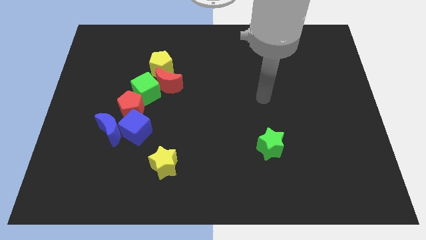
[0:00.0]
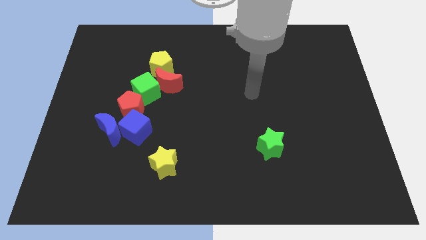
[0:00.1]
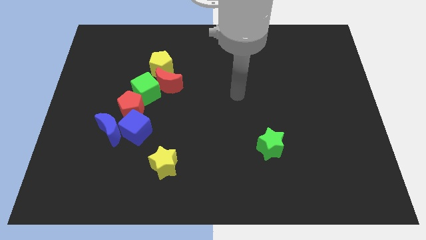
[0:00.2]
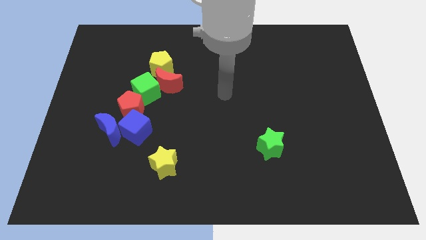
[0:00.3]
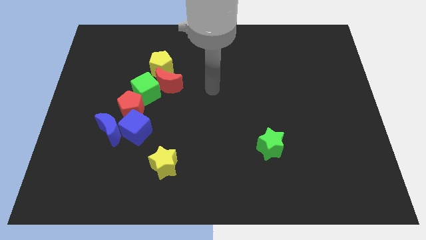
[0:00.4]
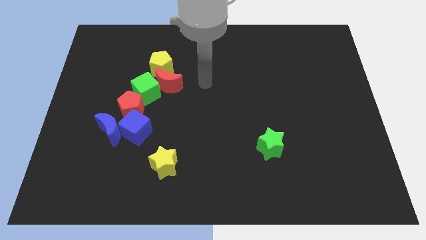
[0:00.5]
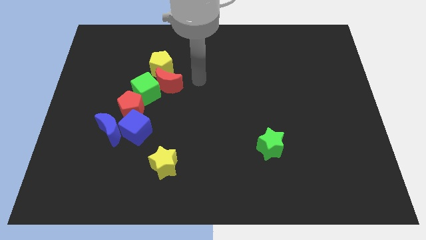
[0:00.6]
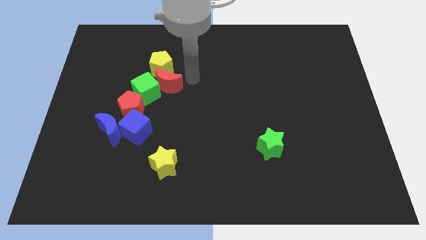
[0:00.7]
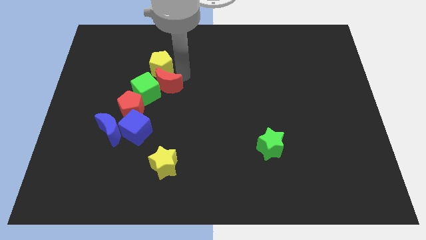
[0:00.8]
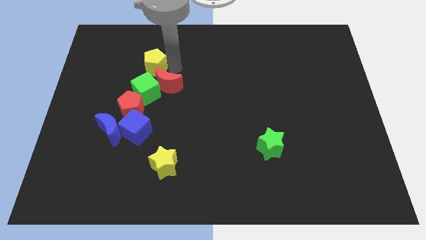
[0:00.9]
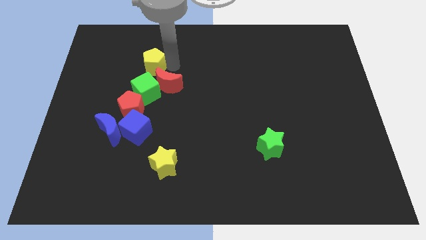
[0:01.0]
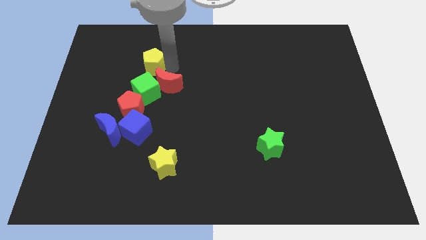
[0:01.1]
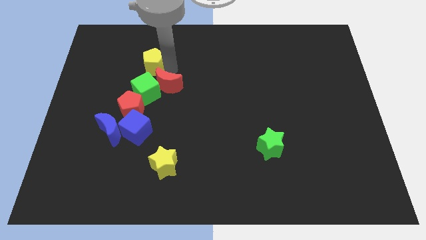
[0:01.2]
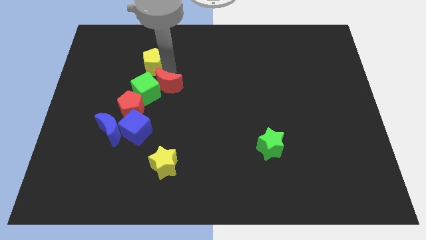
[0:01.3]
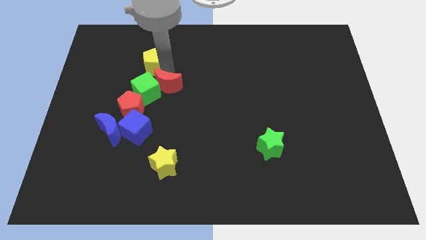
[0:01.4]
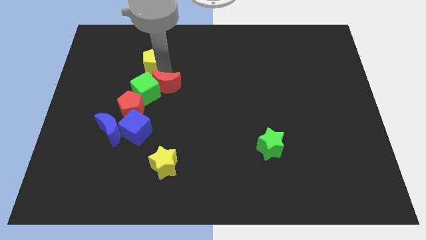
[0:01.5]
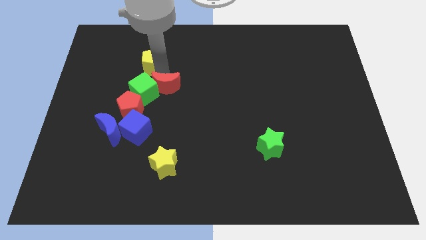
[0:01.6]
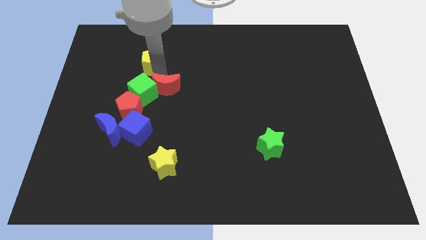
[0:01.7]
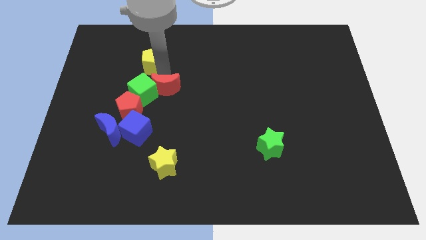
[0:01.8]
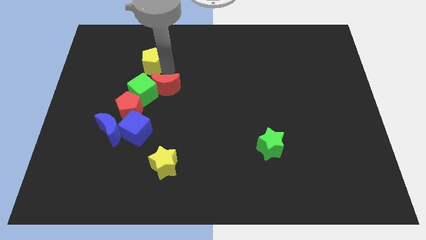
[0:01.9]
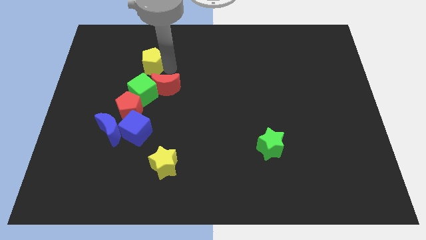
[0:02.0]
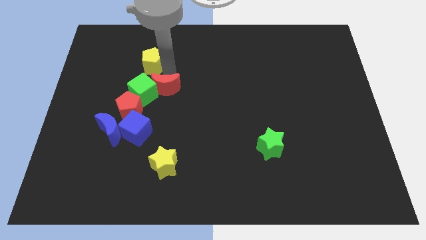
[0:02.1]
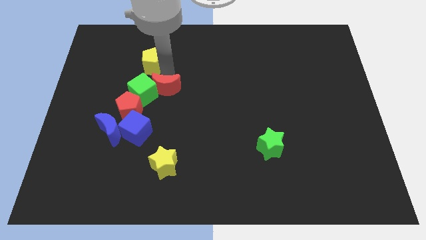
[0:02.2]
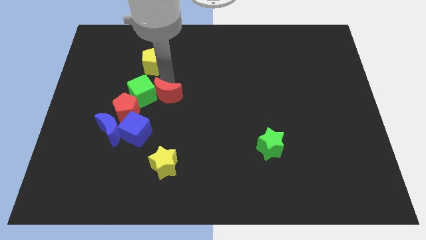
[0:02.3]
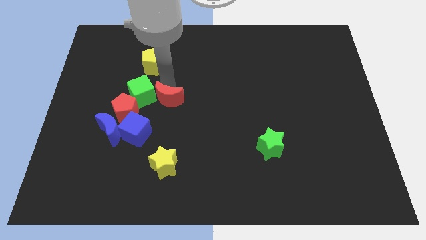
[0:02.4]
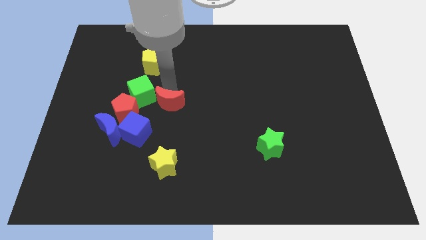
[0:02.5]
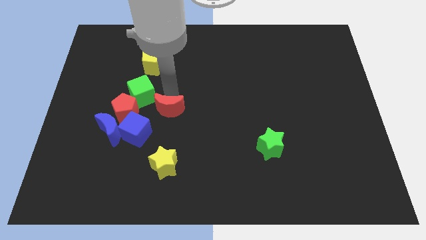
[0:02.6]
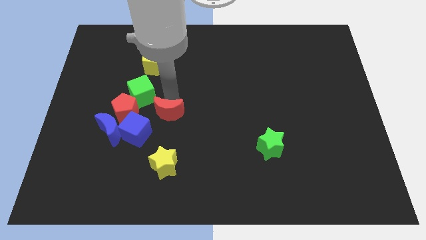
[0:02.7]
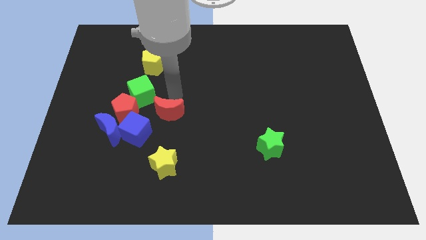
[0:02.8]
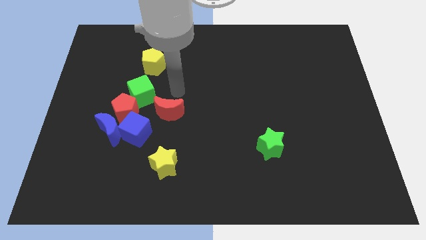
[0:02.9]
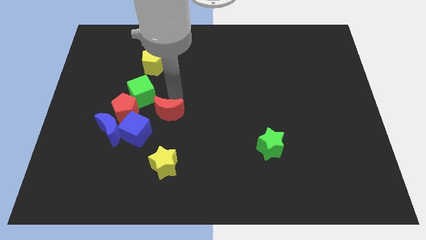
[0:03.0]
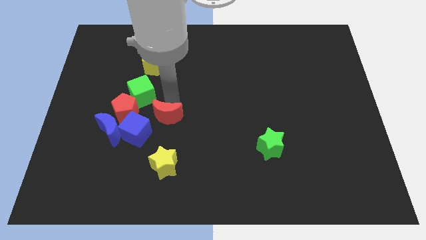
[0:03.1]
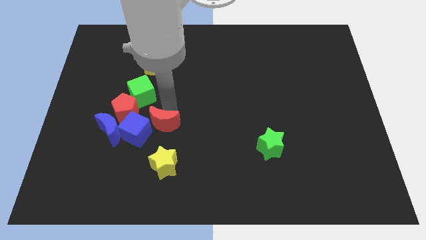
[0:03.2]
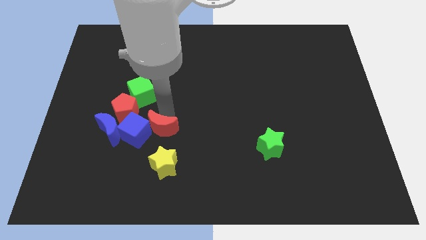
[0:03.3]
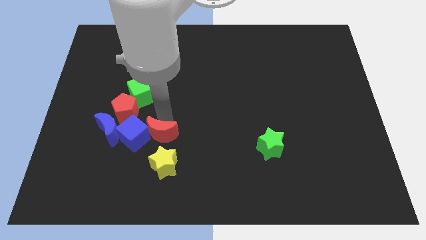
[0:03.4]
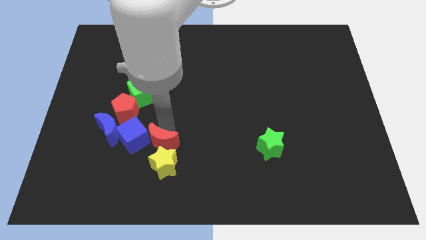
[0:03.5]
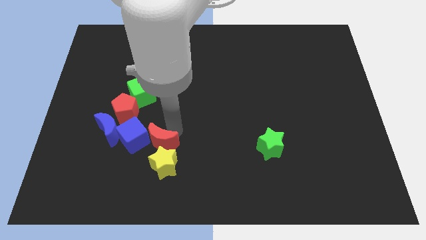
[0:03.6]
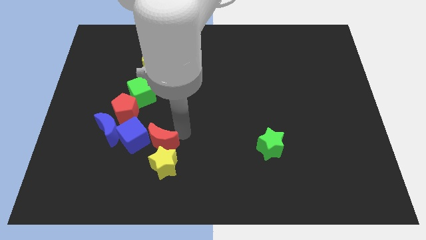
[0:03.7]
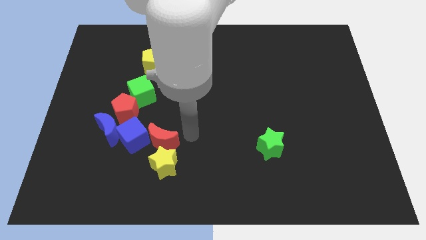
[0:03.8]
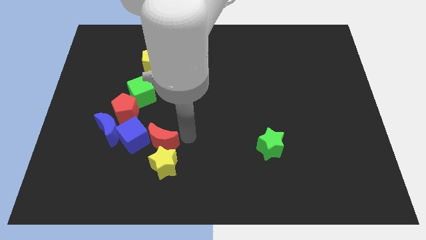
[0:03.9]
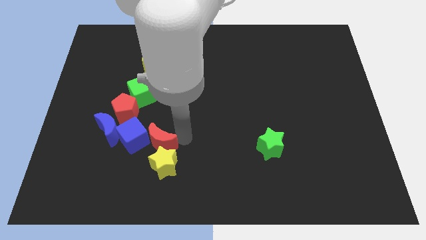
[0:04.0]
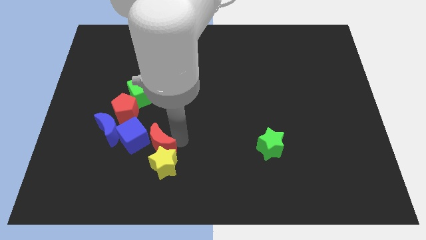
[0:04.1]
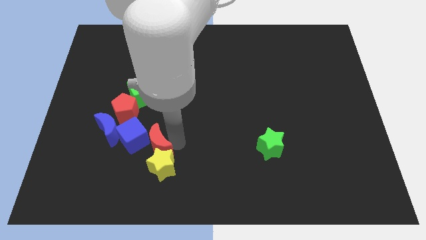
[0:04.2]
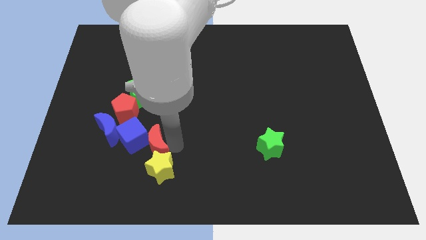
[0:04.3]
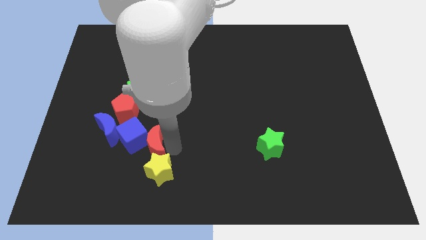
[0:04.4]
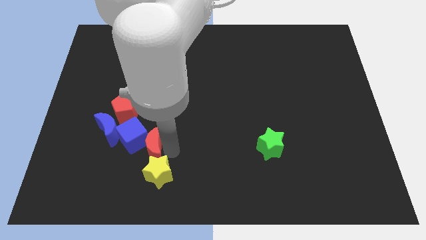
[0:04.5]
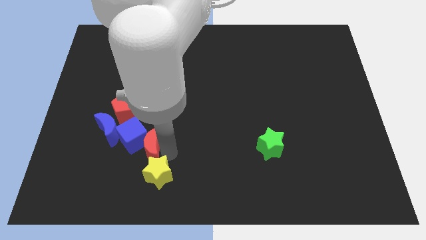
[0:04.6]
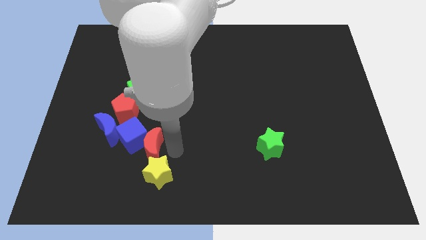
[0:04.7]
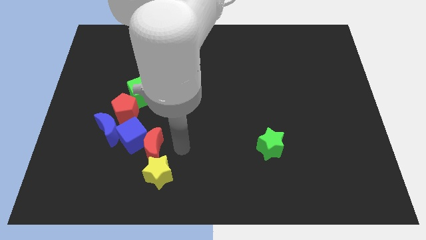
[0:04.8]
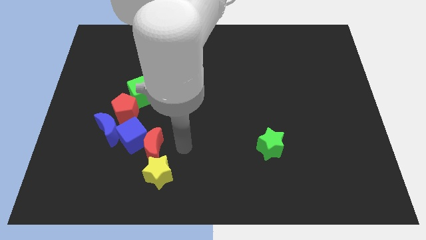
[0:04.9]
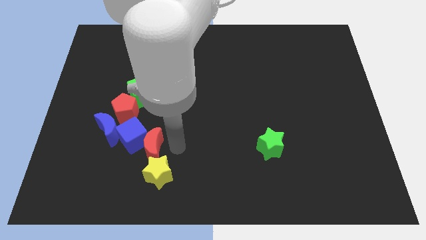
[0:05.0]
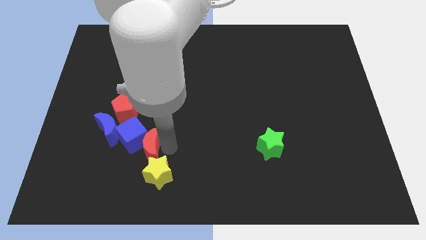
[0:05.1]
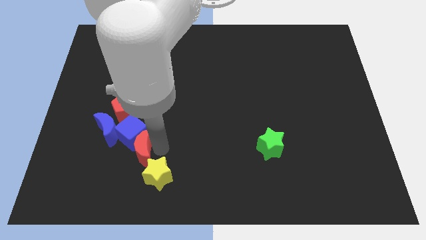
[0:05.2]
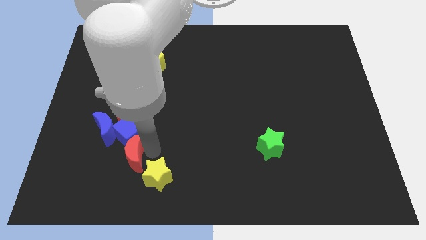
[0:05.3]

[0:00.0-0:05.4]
put the red moon to the bottom side of the red pentagon

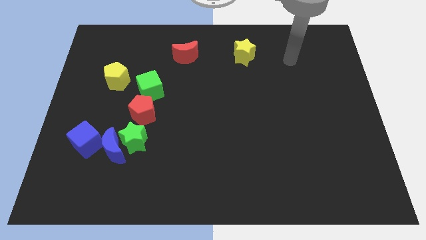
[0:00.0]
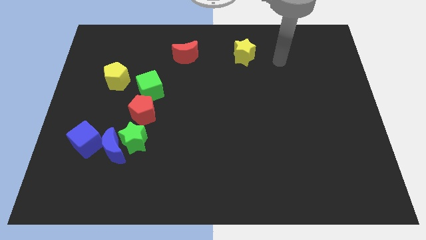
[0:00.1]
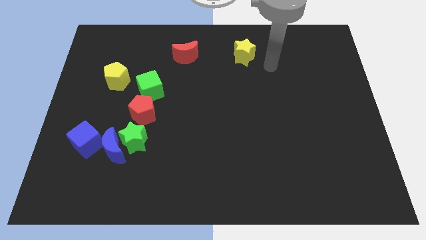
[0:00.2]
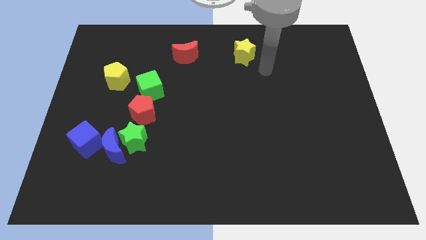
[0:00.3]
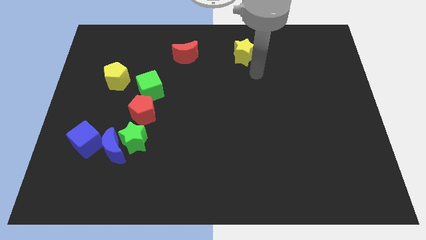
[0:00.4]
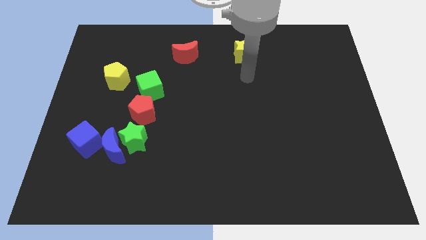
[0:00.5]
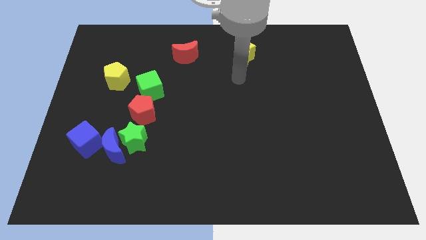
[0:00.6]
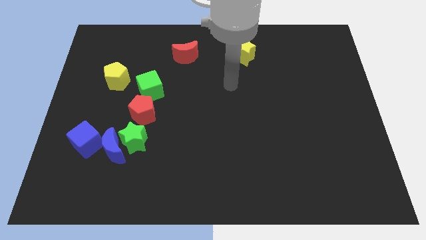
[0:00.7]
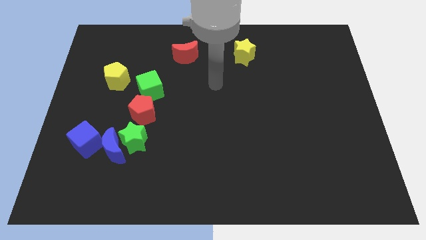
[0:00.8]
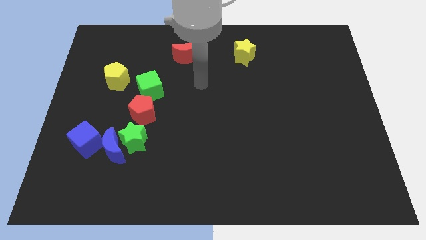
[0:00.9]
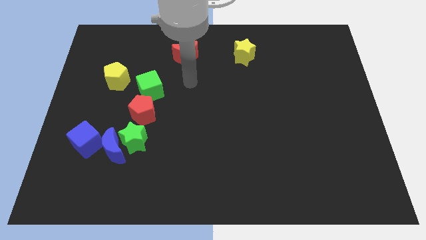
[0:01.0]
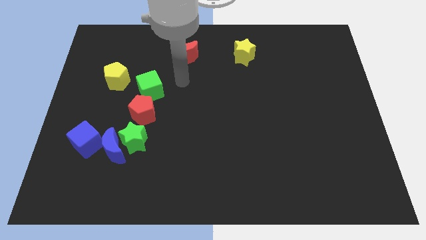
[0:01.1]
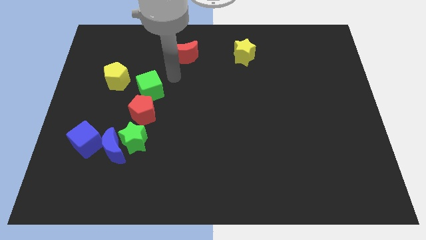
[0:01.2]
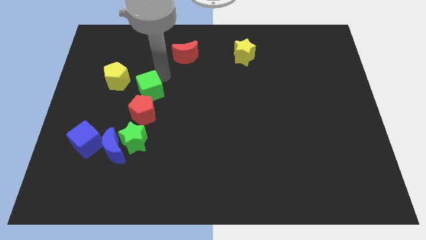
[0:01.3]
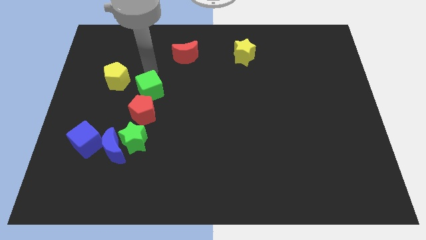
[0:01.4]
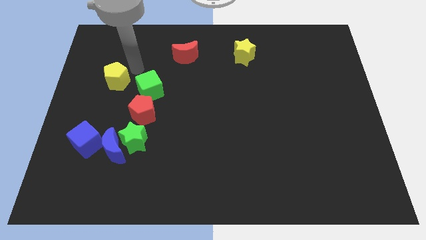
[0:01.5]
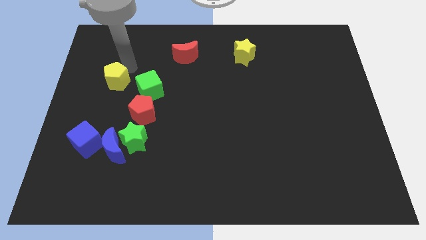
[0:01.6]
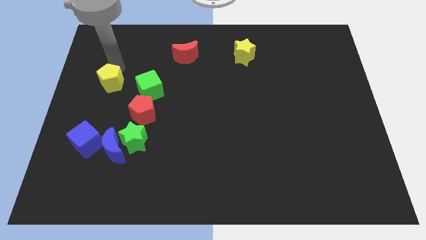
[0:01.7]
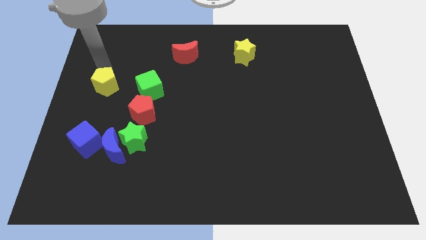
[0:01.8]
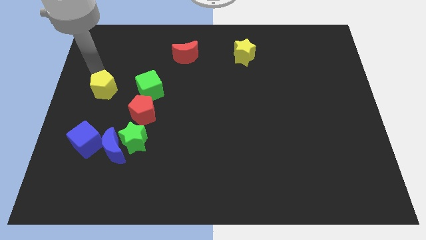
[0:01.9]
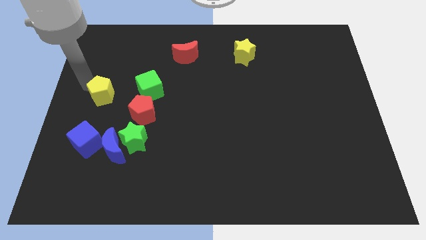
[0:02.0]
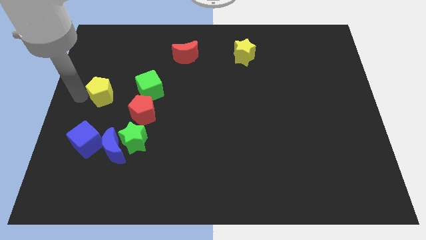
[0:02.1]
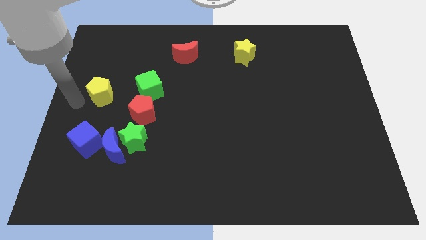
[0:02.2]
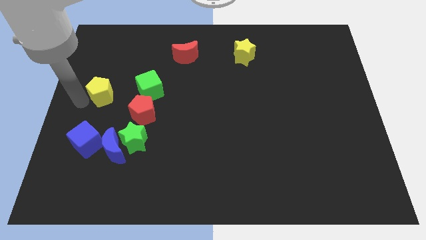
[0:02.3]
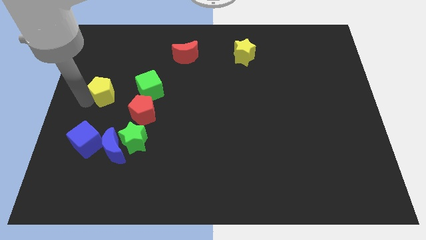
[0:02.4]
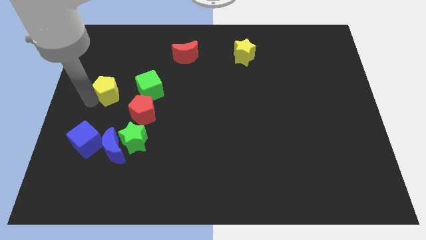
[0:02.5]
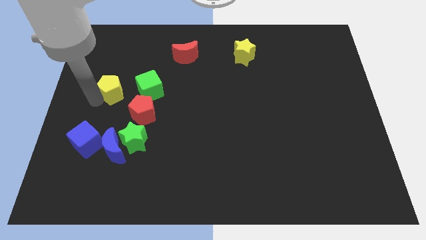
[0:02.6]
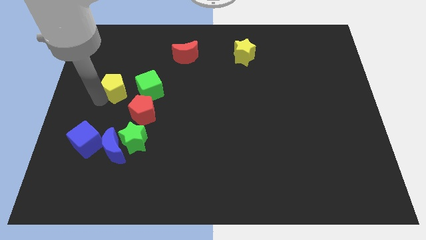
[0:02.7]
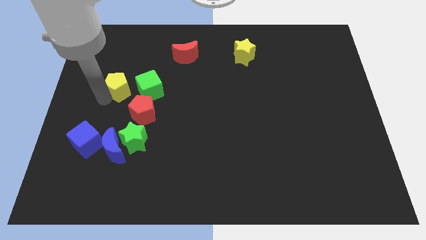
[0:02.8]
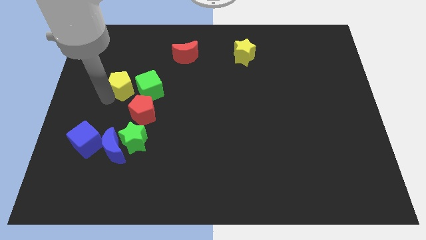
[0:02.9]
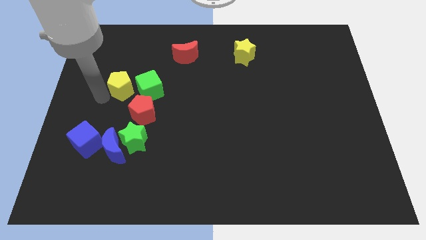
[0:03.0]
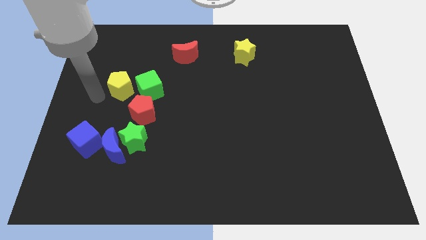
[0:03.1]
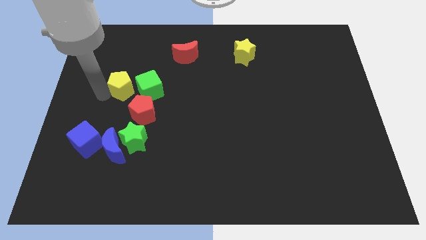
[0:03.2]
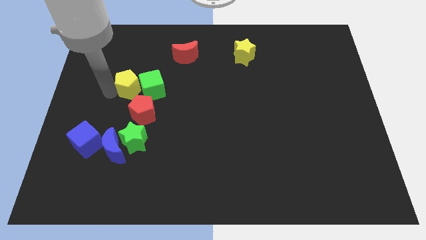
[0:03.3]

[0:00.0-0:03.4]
move the yellow pentagon to the top side of the red pentagon
